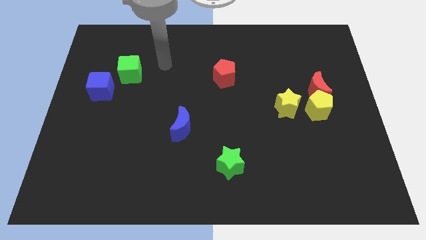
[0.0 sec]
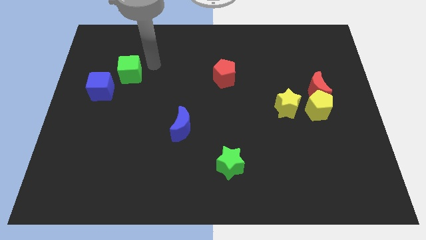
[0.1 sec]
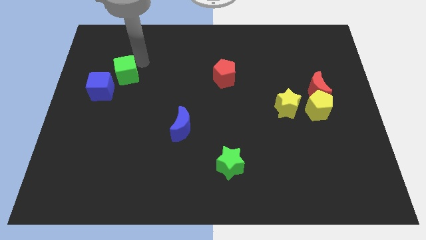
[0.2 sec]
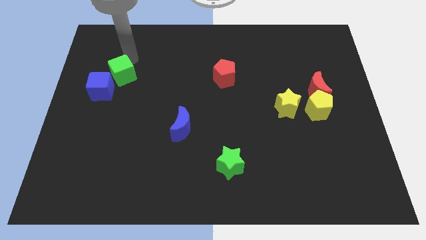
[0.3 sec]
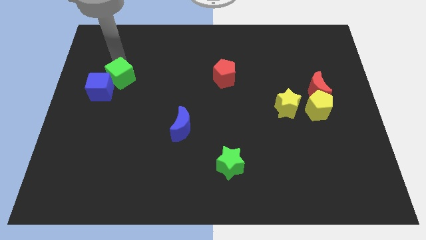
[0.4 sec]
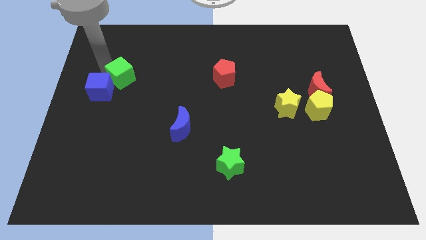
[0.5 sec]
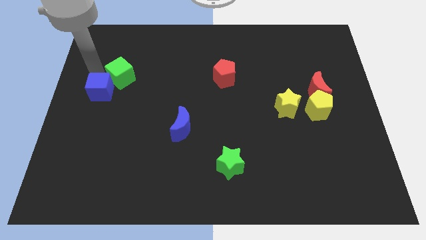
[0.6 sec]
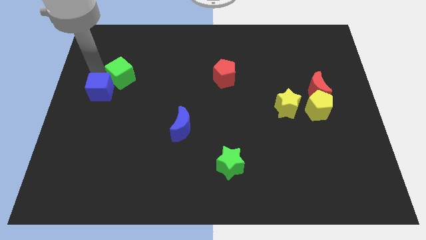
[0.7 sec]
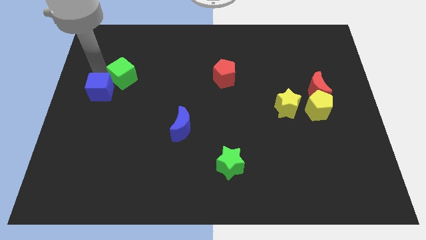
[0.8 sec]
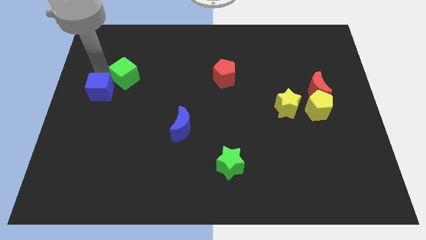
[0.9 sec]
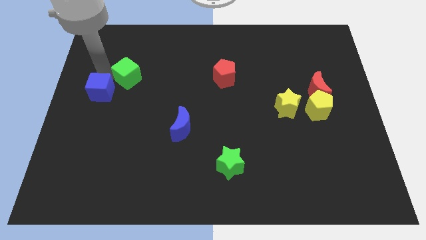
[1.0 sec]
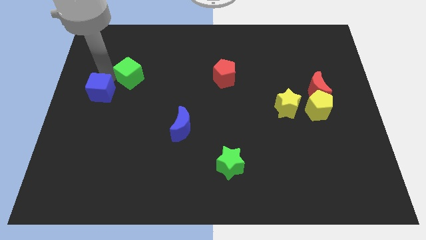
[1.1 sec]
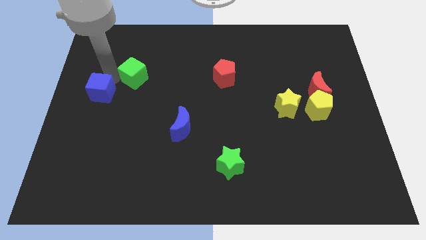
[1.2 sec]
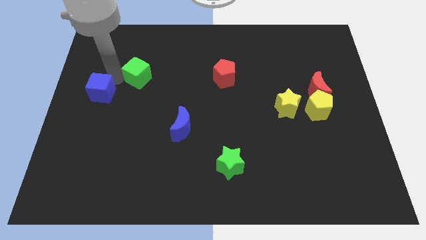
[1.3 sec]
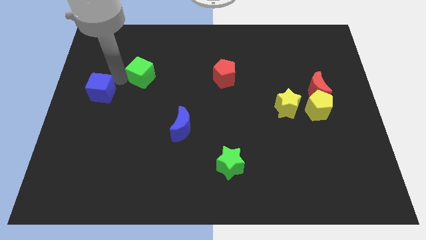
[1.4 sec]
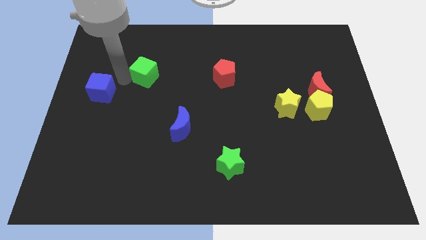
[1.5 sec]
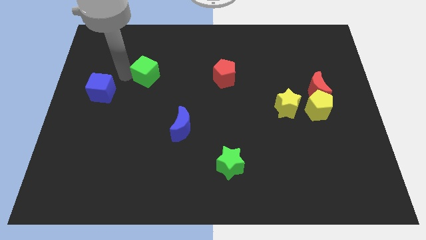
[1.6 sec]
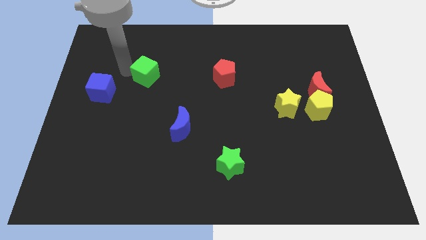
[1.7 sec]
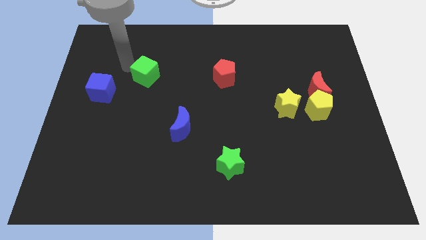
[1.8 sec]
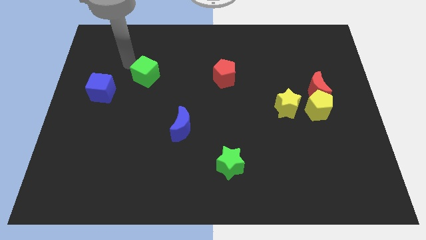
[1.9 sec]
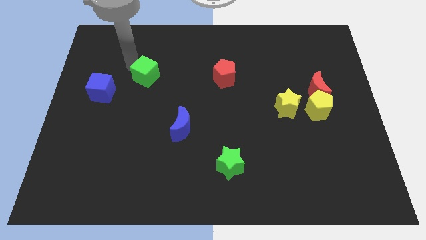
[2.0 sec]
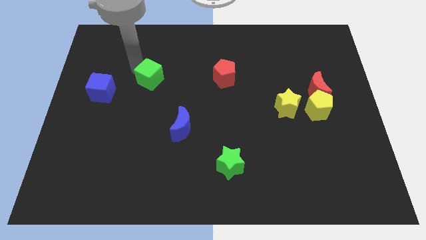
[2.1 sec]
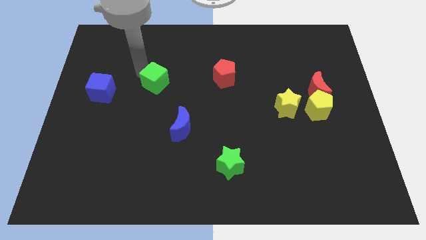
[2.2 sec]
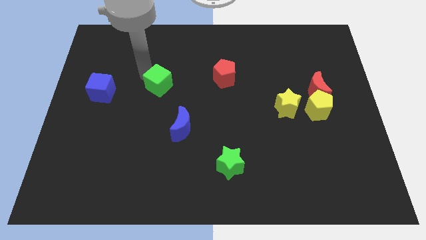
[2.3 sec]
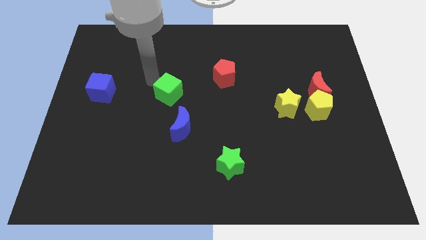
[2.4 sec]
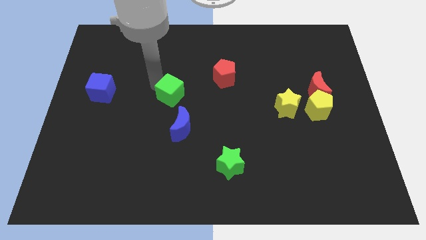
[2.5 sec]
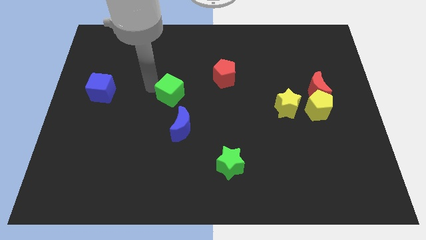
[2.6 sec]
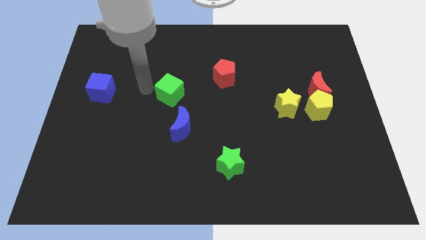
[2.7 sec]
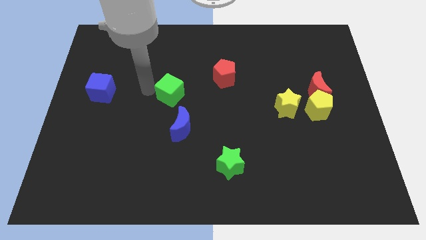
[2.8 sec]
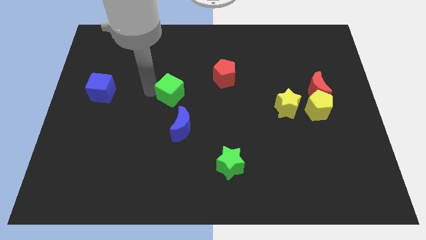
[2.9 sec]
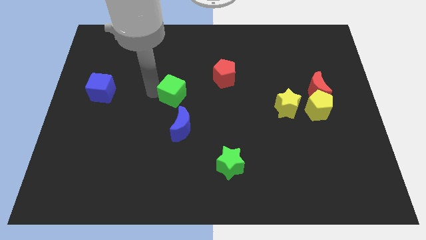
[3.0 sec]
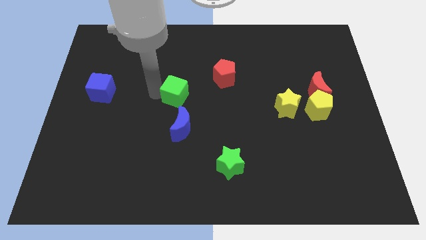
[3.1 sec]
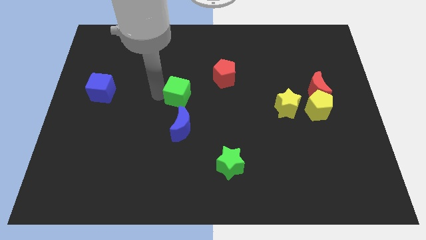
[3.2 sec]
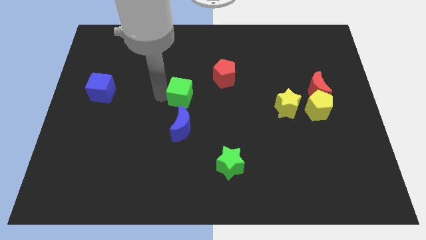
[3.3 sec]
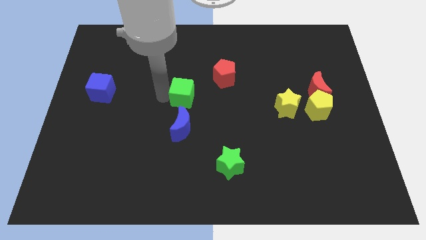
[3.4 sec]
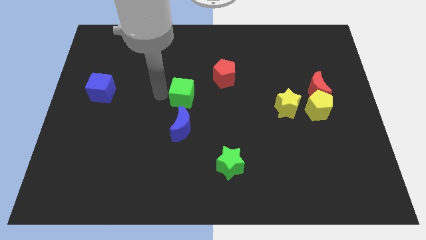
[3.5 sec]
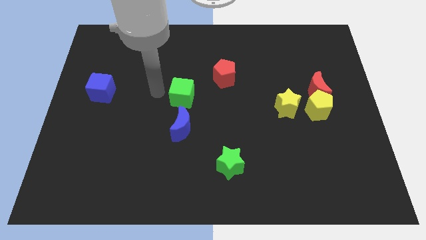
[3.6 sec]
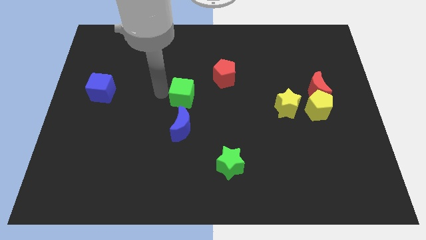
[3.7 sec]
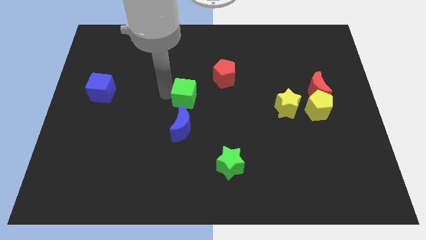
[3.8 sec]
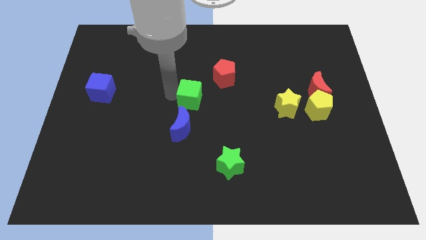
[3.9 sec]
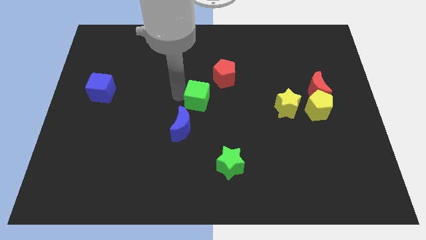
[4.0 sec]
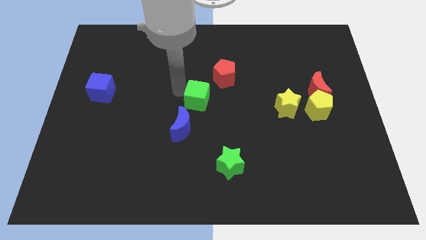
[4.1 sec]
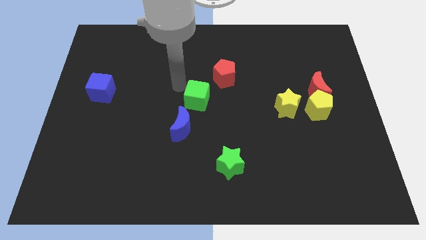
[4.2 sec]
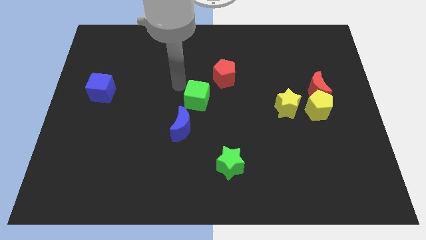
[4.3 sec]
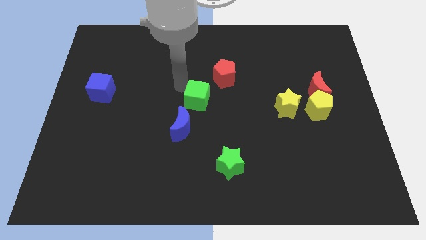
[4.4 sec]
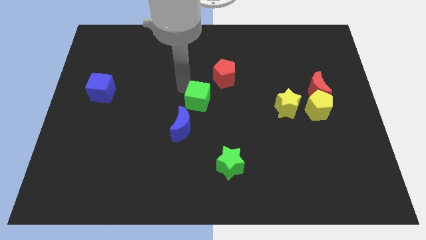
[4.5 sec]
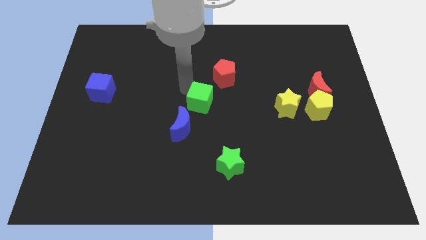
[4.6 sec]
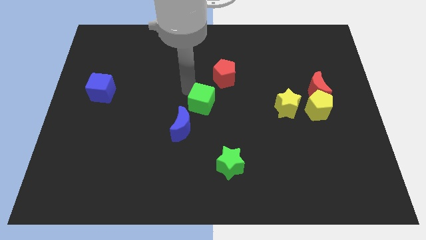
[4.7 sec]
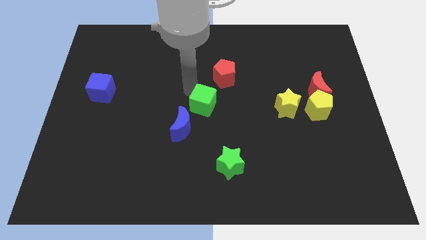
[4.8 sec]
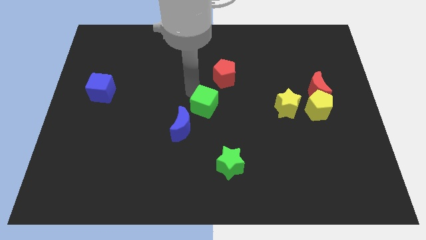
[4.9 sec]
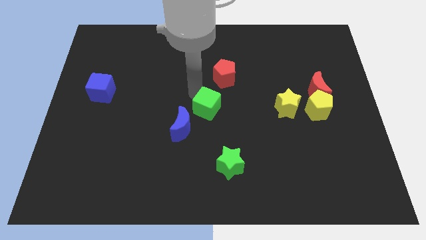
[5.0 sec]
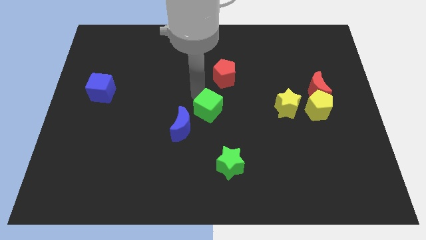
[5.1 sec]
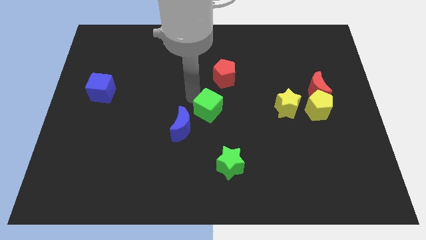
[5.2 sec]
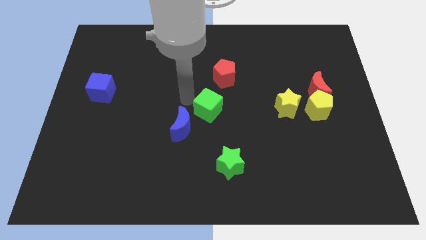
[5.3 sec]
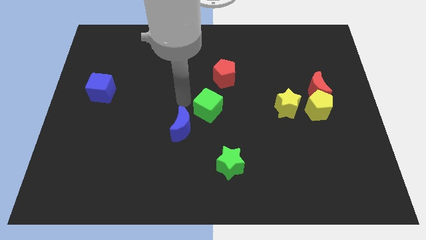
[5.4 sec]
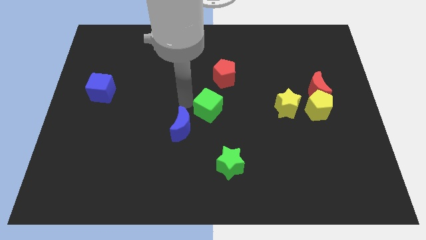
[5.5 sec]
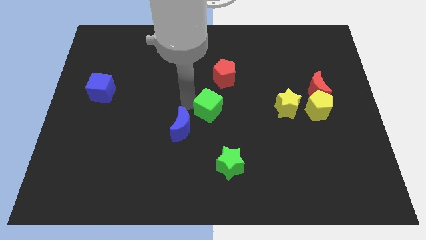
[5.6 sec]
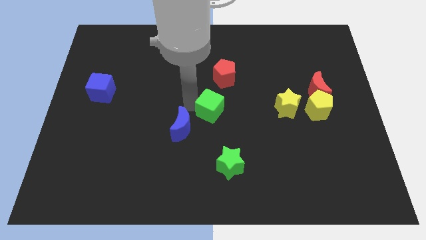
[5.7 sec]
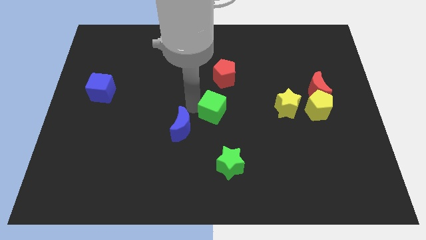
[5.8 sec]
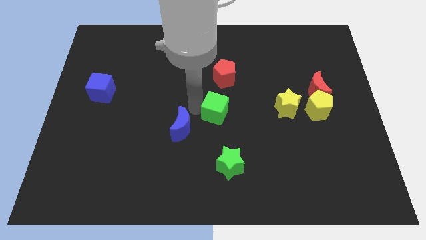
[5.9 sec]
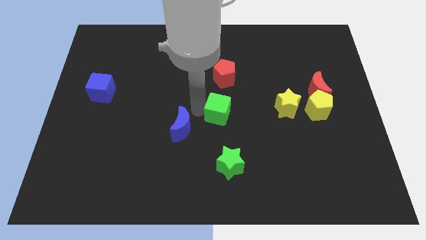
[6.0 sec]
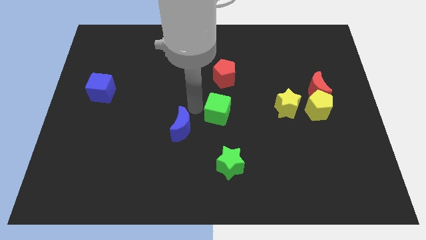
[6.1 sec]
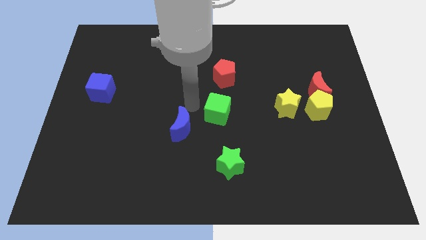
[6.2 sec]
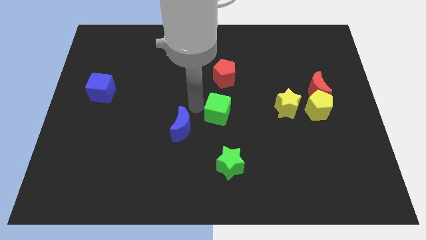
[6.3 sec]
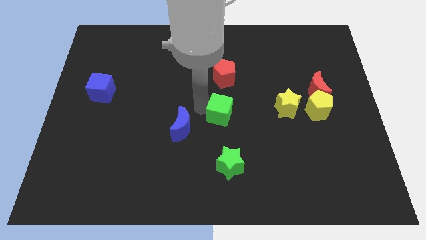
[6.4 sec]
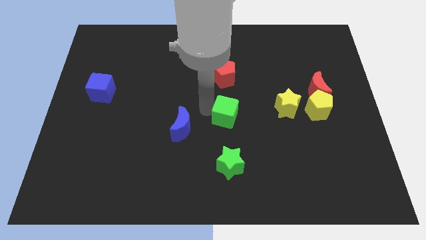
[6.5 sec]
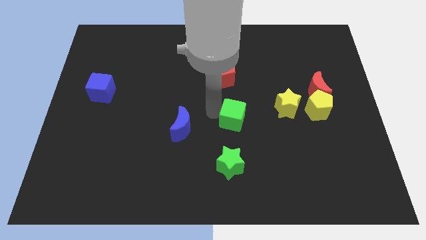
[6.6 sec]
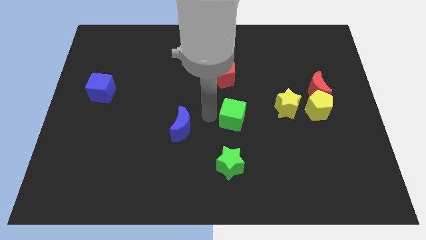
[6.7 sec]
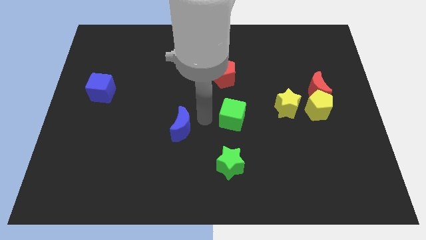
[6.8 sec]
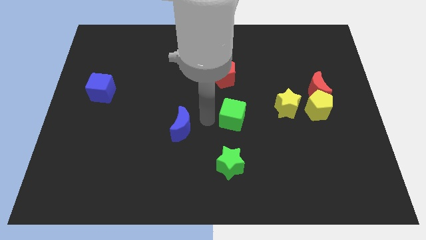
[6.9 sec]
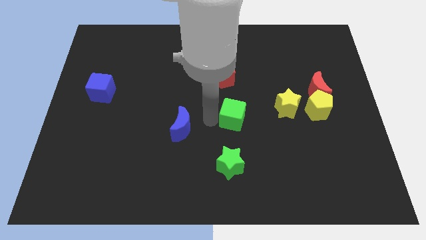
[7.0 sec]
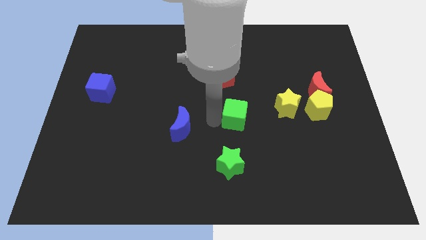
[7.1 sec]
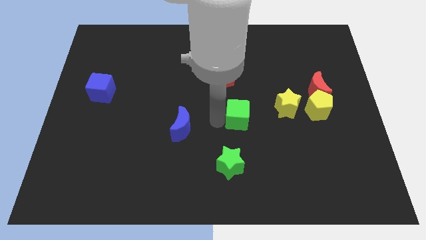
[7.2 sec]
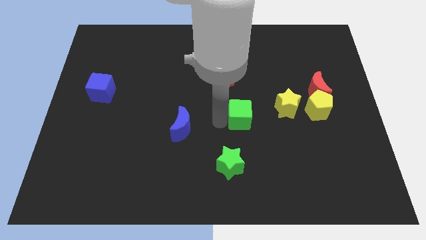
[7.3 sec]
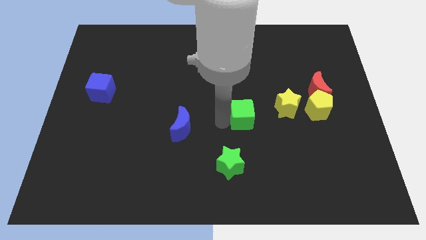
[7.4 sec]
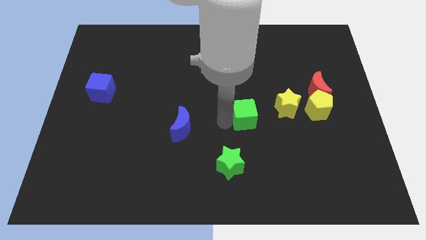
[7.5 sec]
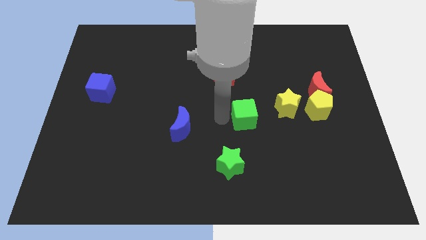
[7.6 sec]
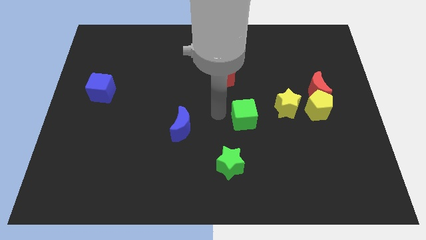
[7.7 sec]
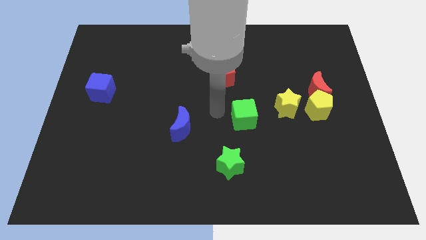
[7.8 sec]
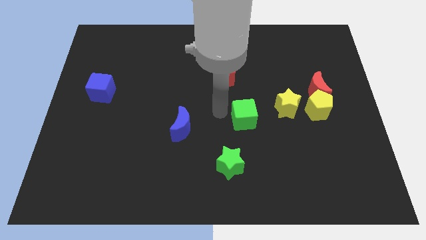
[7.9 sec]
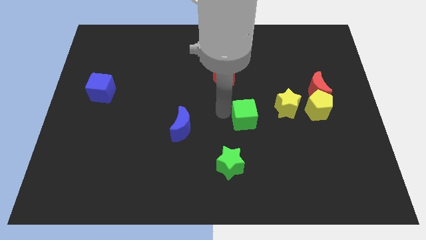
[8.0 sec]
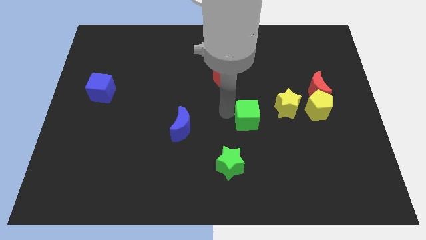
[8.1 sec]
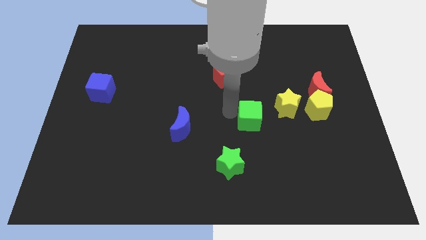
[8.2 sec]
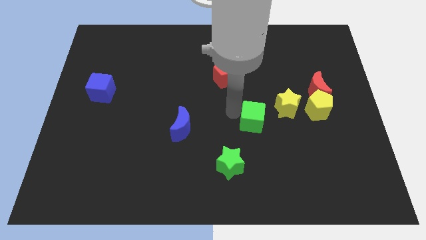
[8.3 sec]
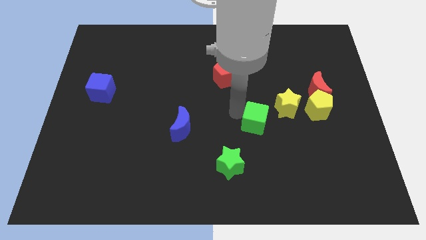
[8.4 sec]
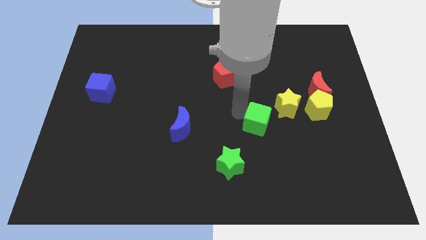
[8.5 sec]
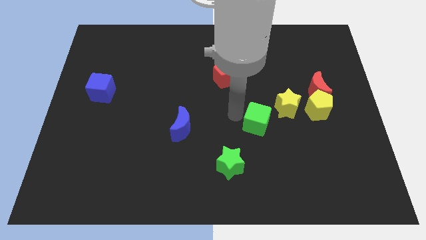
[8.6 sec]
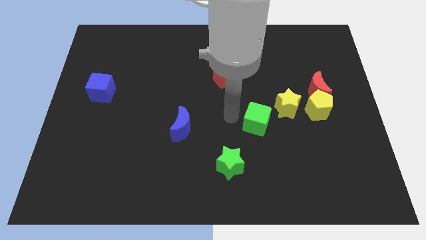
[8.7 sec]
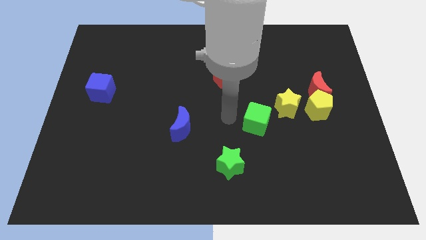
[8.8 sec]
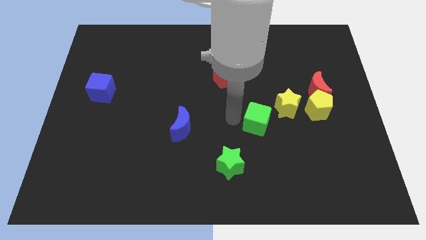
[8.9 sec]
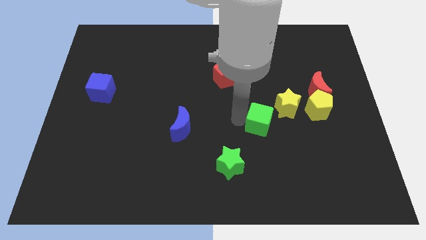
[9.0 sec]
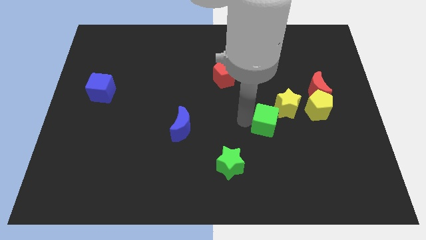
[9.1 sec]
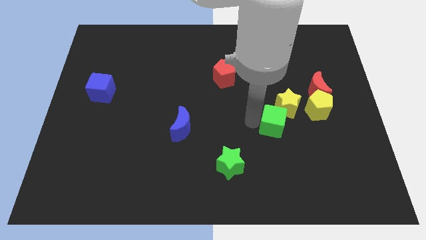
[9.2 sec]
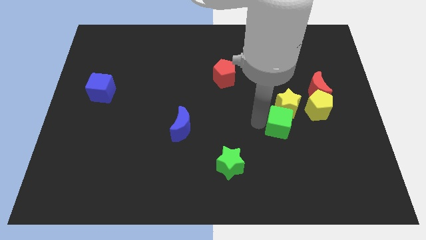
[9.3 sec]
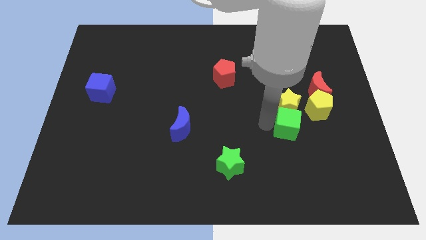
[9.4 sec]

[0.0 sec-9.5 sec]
put the green cube to the bottom right side of the yellow star
